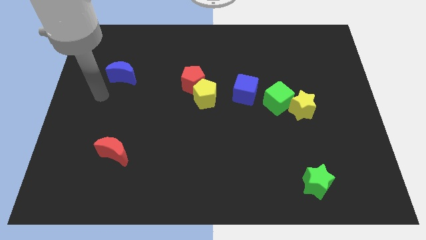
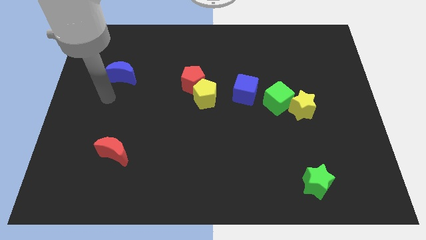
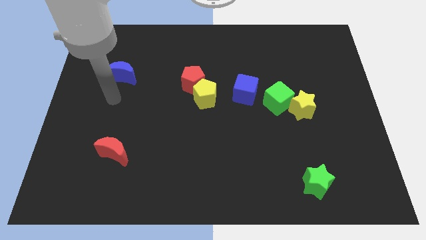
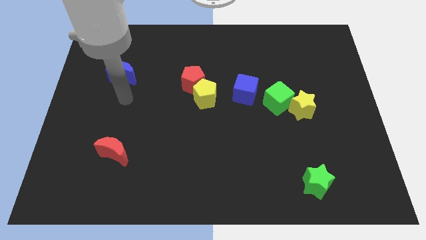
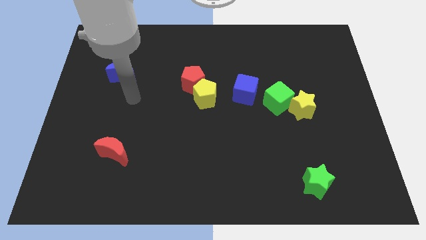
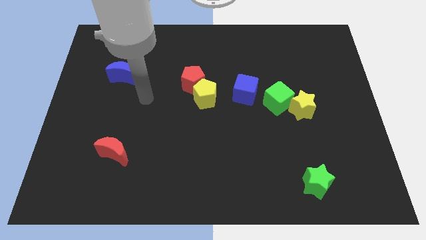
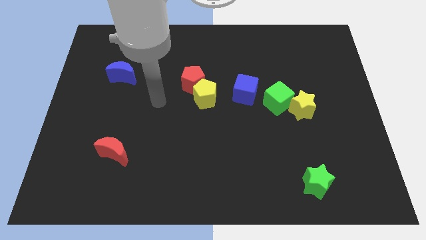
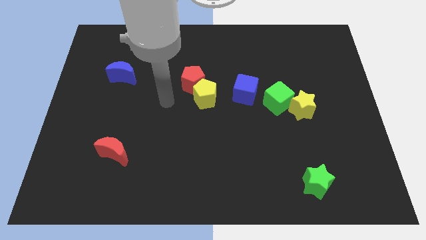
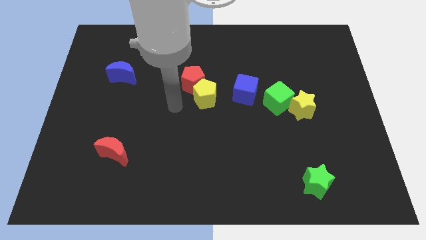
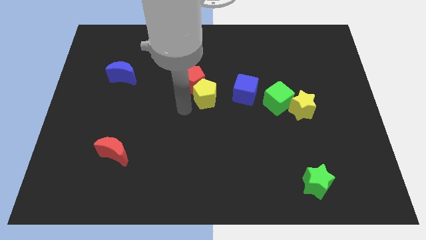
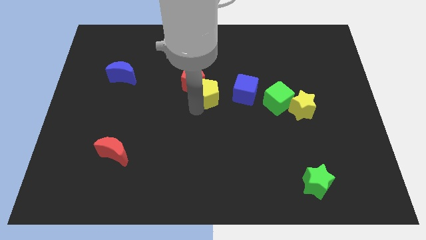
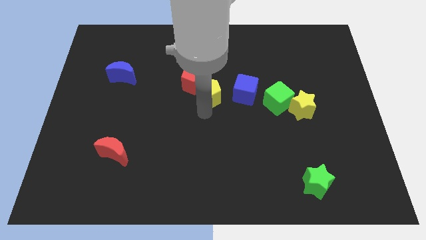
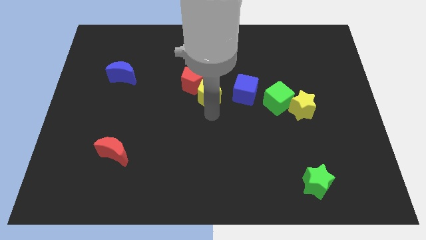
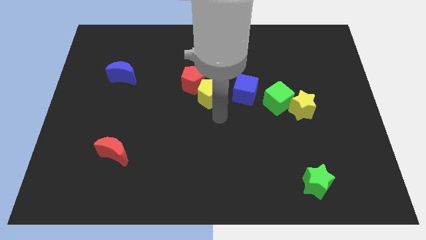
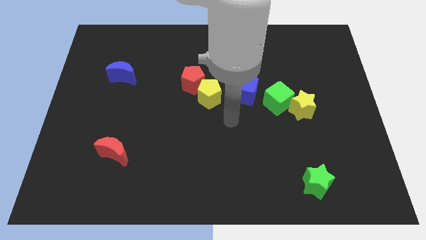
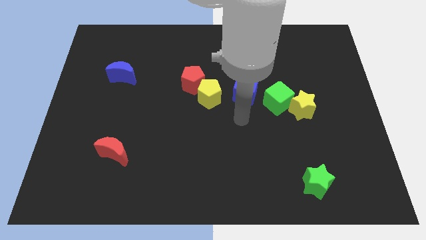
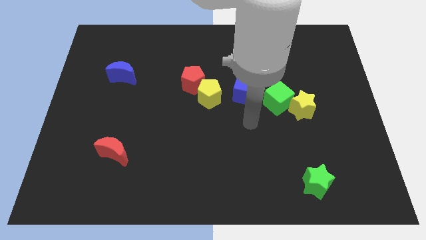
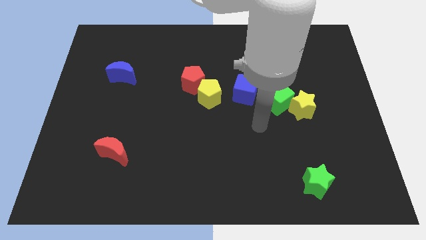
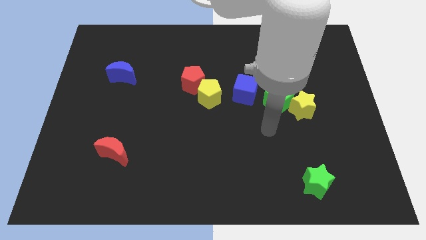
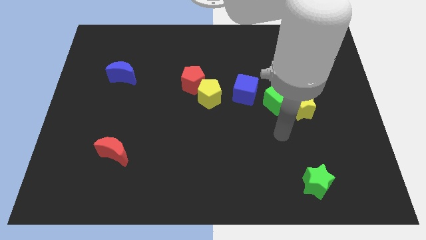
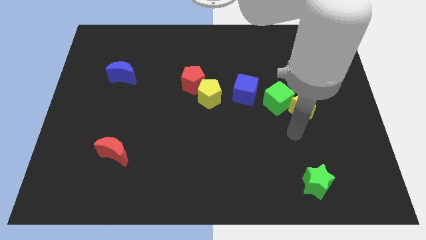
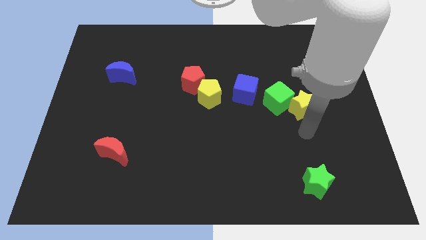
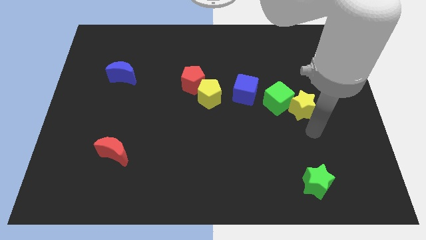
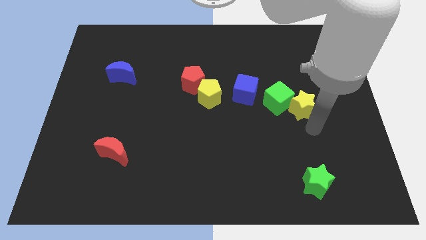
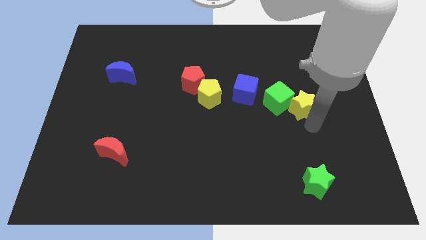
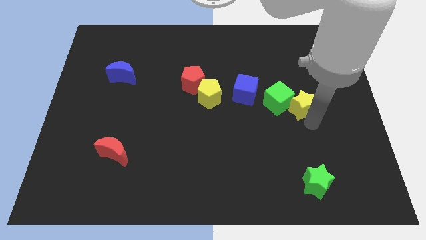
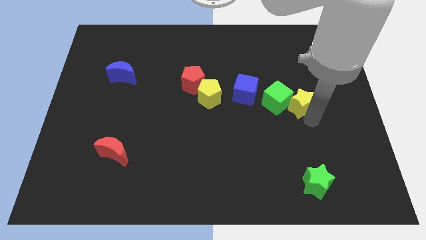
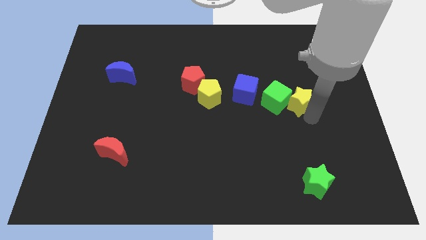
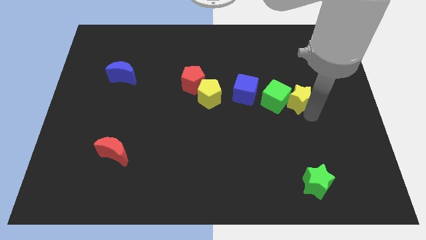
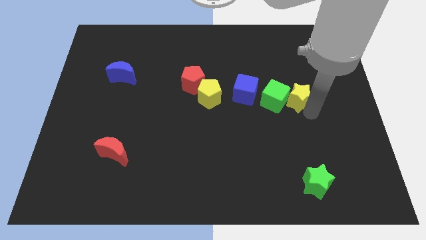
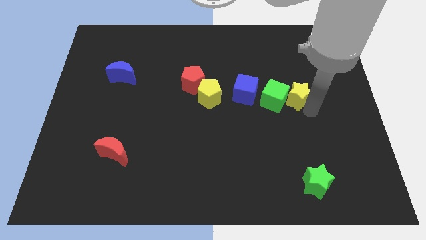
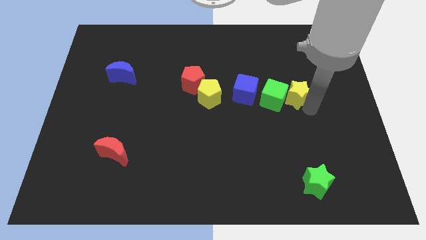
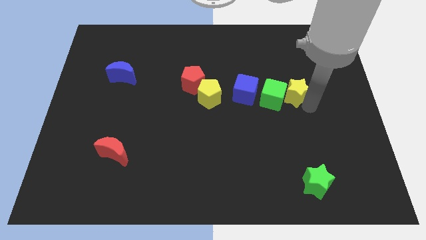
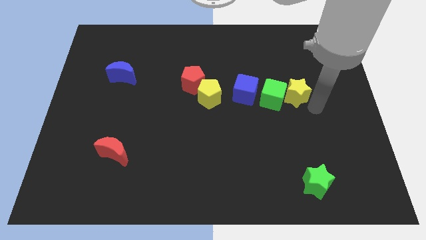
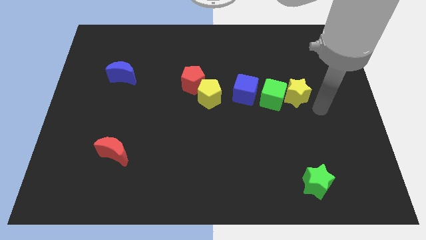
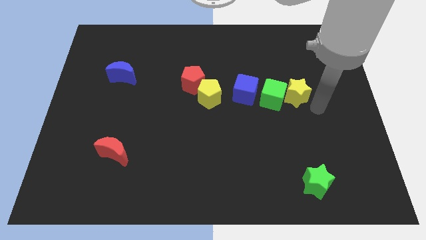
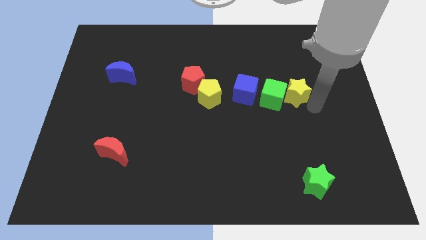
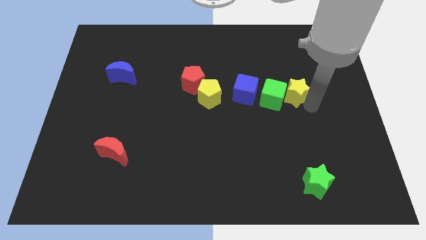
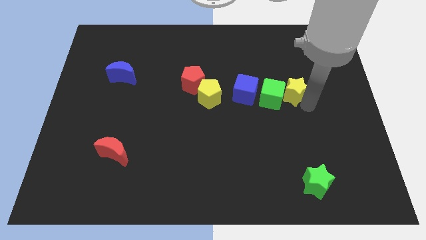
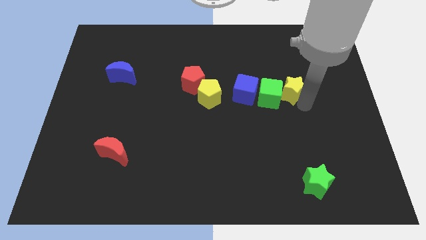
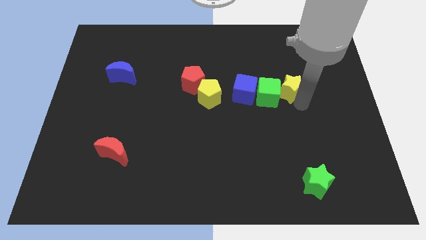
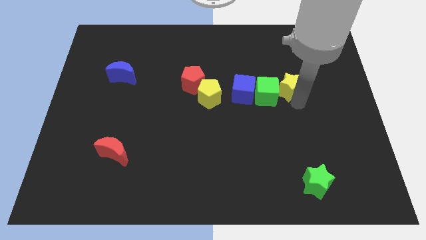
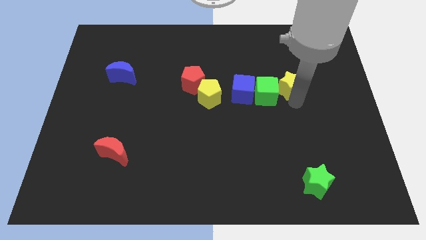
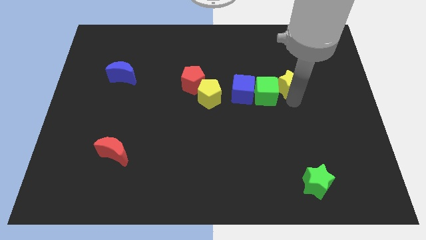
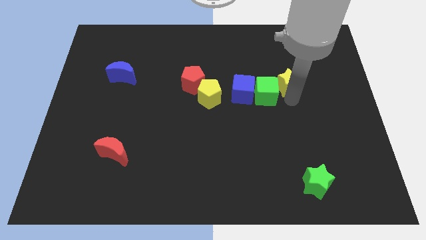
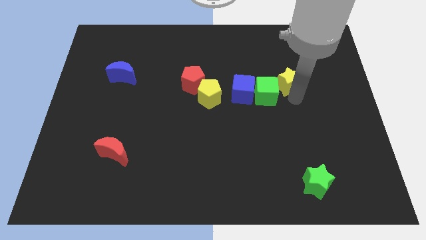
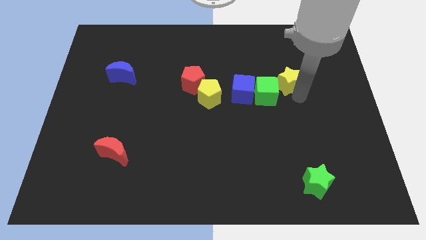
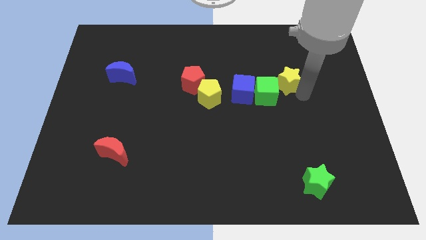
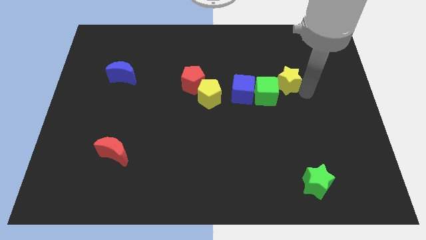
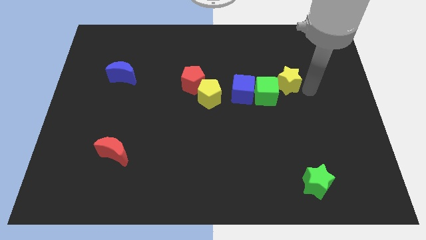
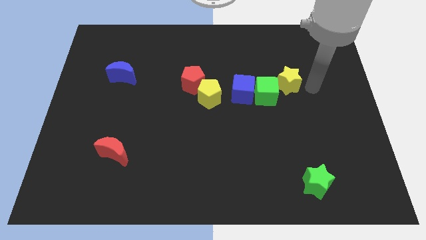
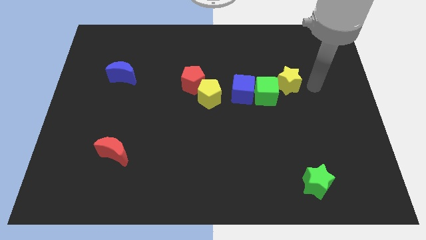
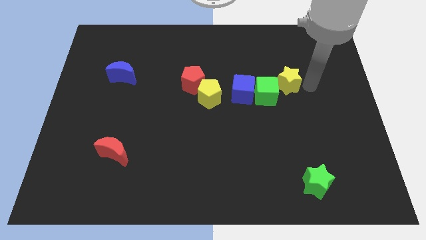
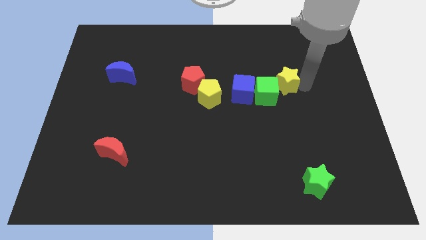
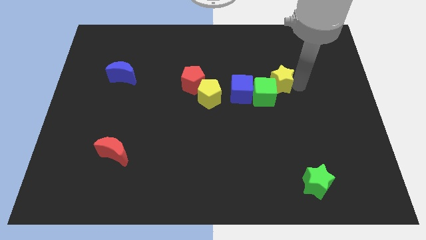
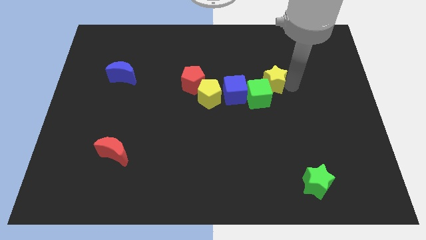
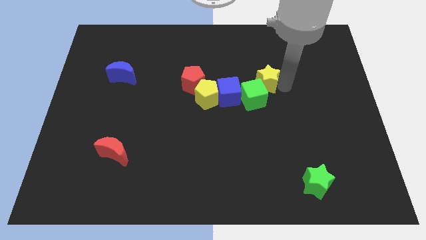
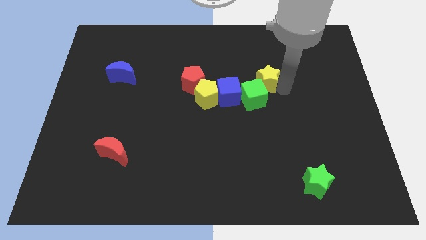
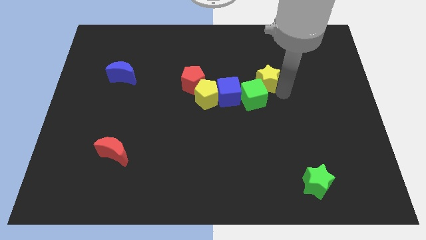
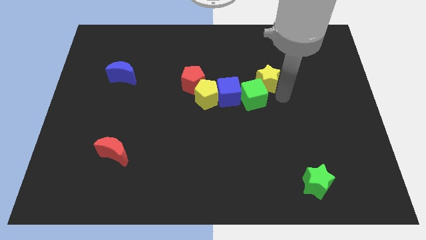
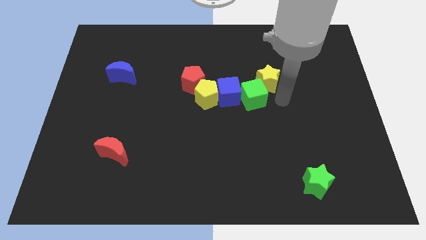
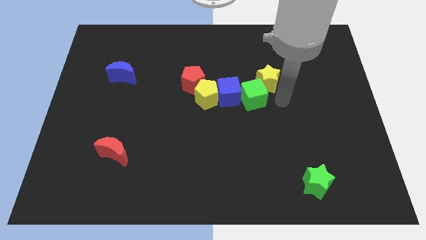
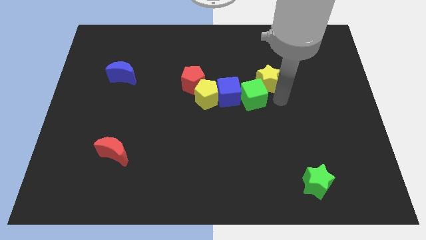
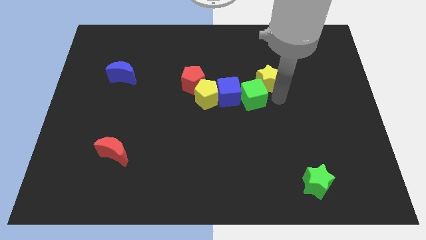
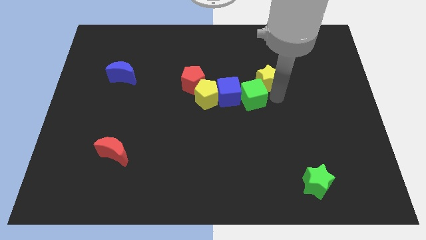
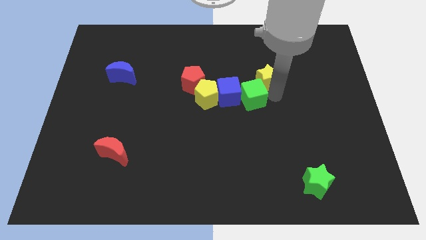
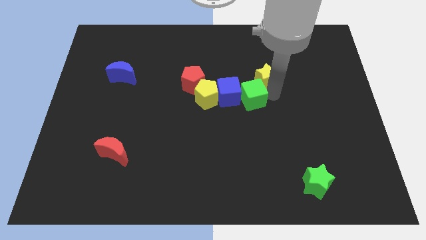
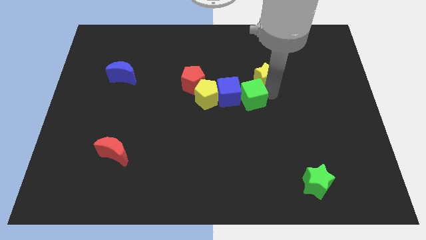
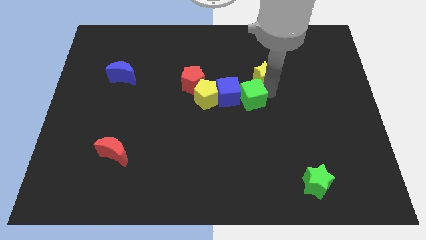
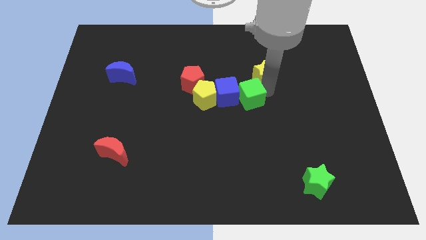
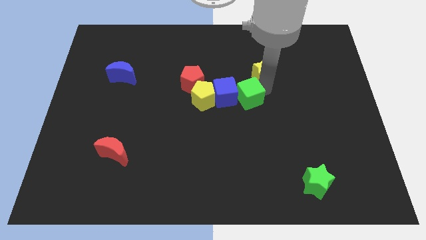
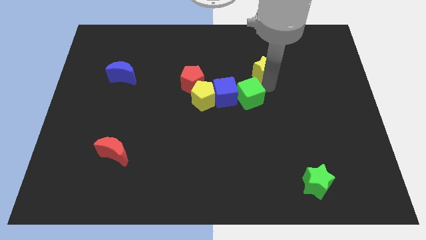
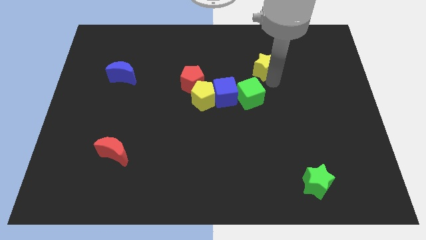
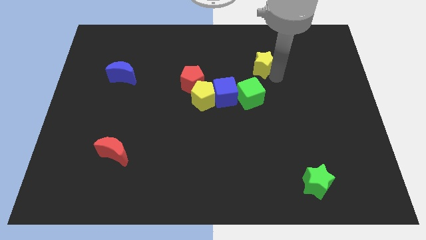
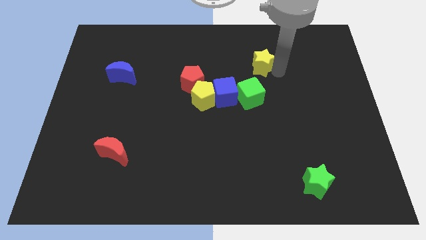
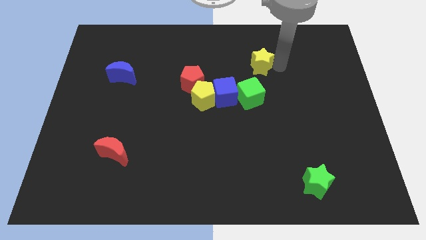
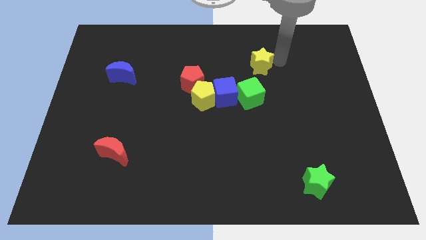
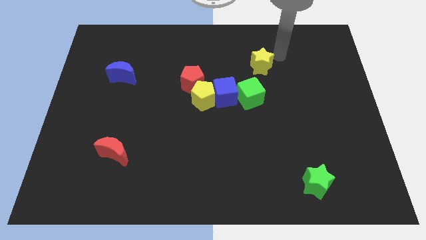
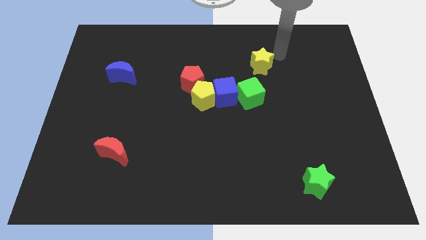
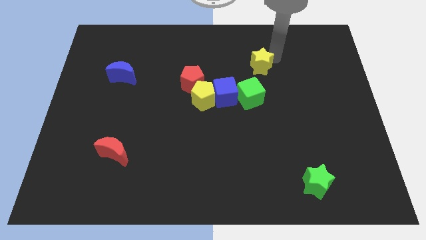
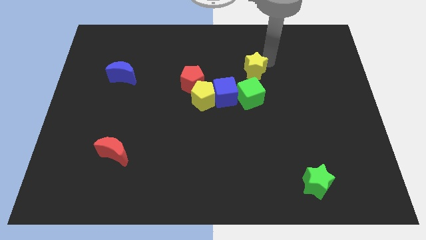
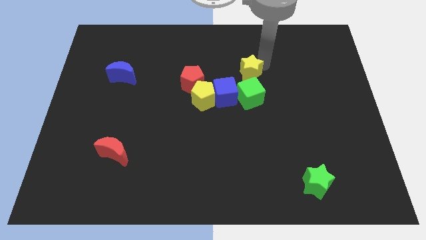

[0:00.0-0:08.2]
put the yellow star to the right of the red pentagon
